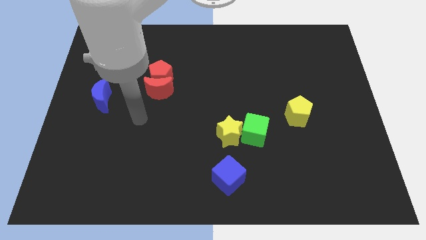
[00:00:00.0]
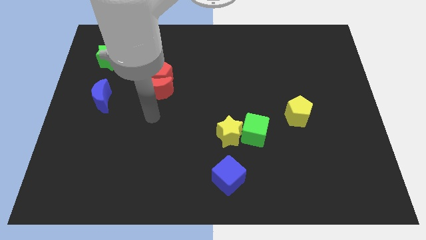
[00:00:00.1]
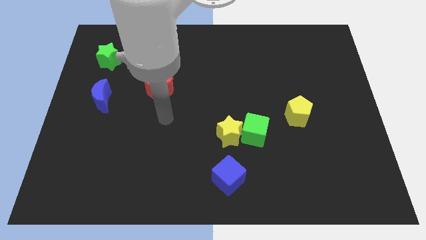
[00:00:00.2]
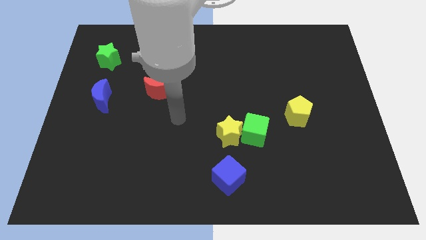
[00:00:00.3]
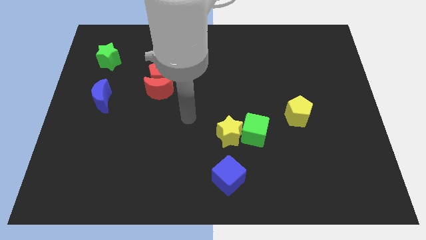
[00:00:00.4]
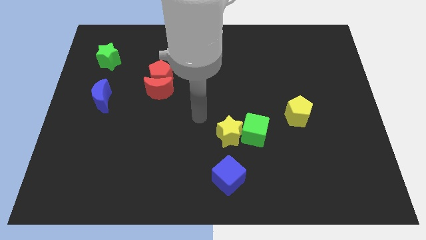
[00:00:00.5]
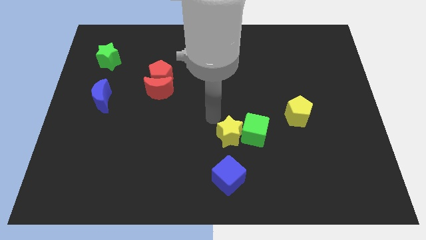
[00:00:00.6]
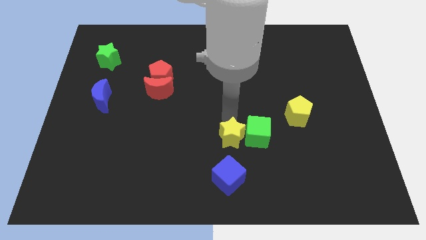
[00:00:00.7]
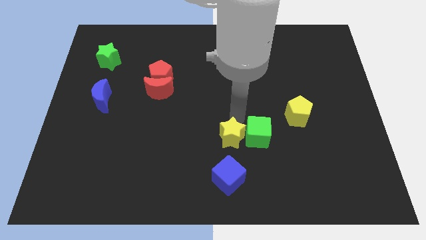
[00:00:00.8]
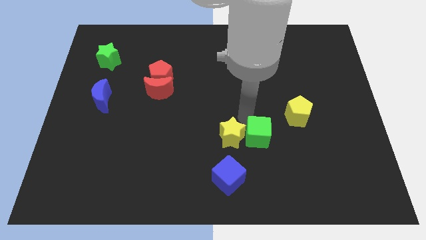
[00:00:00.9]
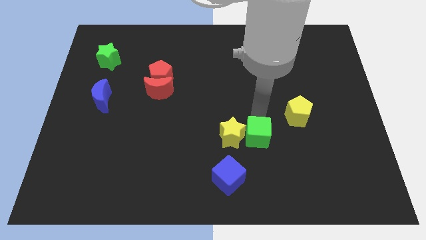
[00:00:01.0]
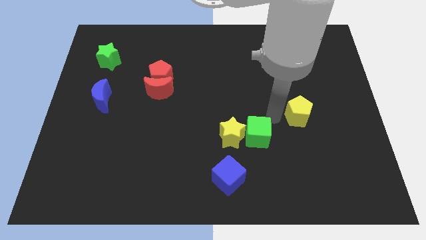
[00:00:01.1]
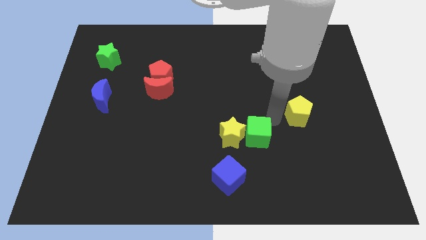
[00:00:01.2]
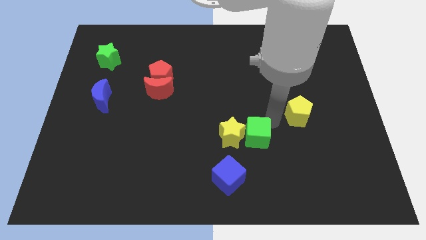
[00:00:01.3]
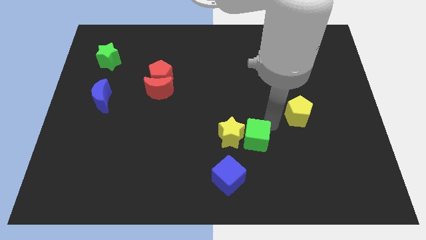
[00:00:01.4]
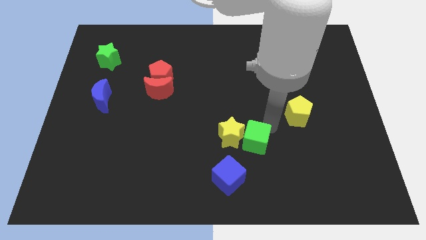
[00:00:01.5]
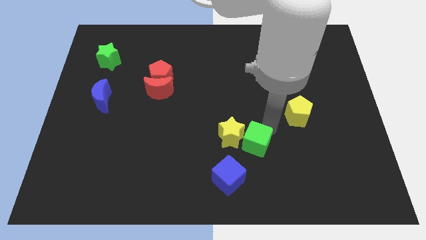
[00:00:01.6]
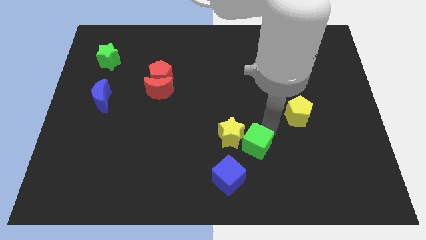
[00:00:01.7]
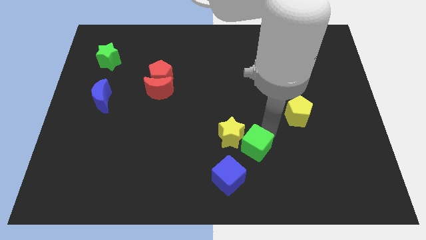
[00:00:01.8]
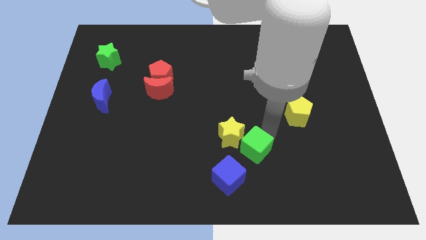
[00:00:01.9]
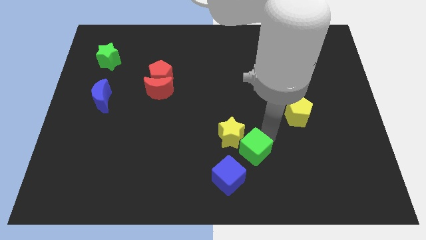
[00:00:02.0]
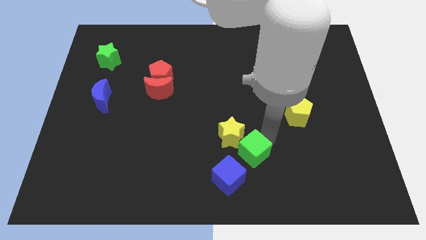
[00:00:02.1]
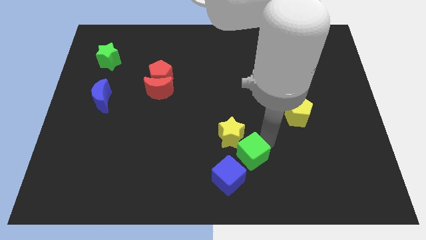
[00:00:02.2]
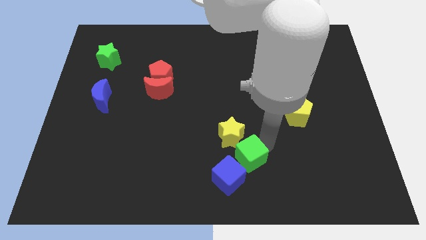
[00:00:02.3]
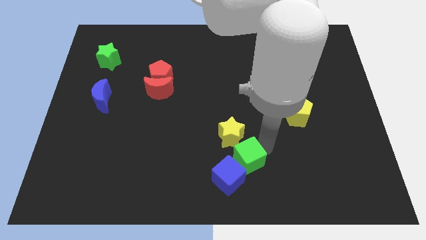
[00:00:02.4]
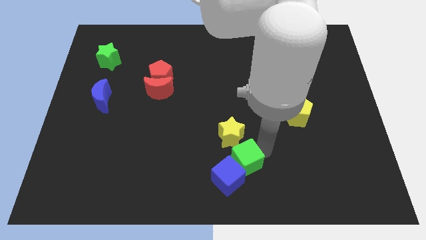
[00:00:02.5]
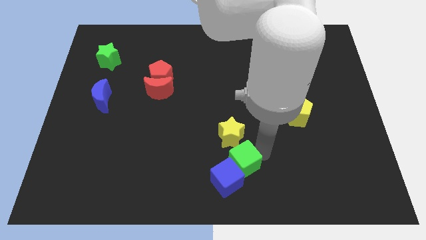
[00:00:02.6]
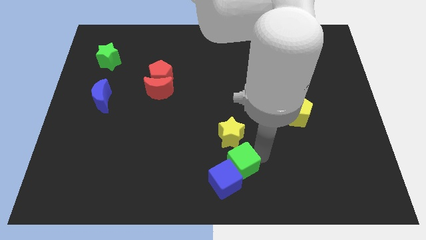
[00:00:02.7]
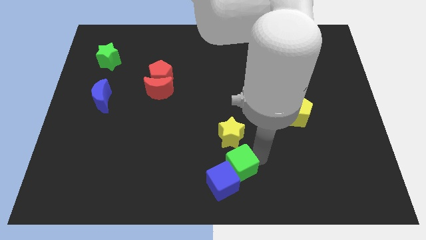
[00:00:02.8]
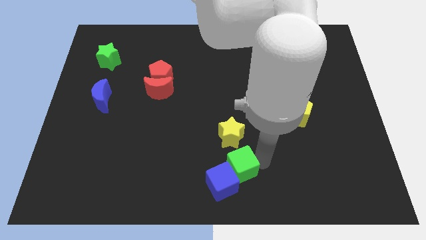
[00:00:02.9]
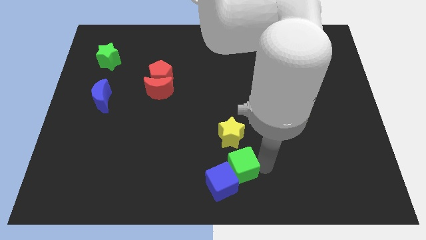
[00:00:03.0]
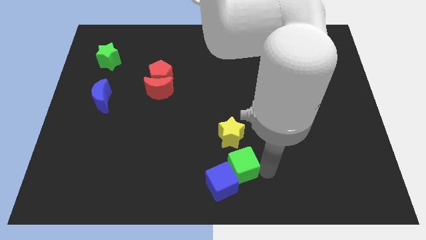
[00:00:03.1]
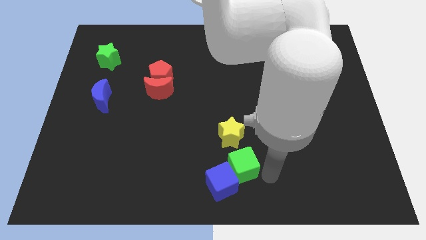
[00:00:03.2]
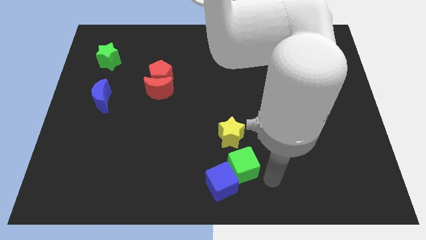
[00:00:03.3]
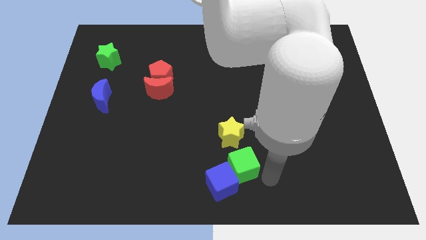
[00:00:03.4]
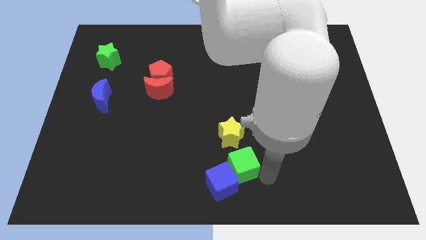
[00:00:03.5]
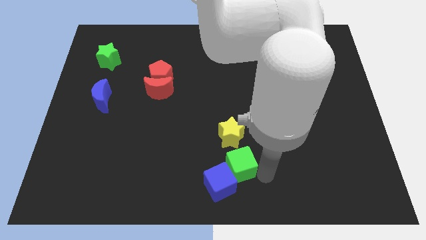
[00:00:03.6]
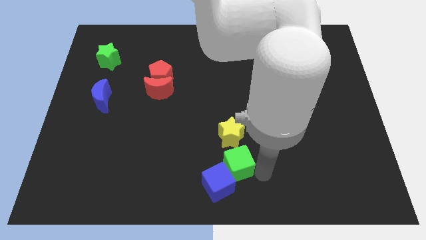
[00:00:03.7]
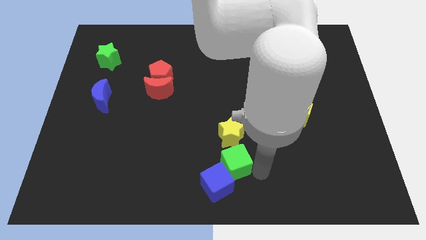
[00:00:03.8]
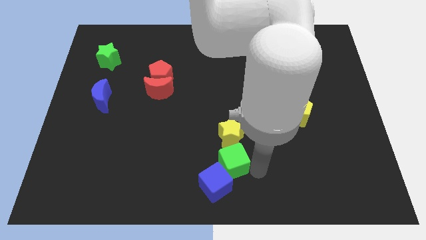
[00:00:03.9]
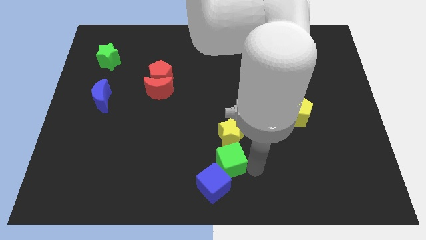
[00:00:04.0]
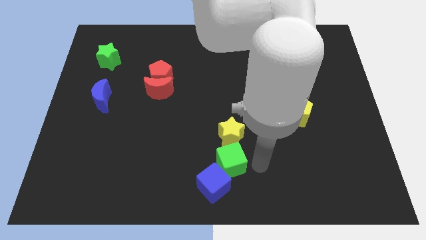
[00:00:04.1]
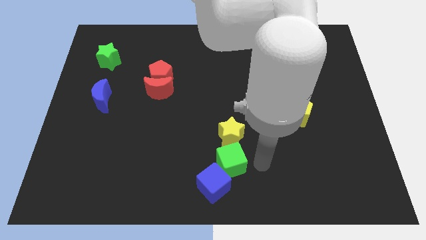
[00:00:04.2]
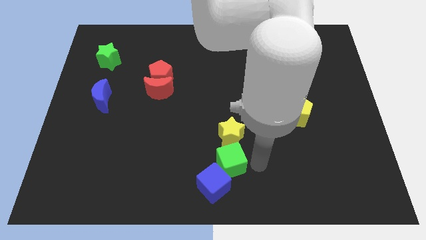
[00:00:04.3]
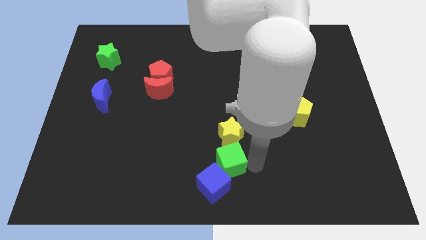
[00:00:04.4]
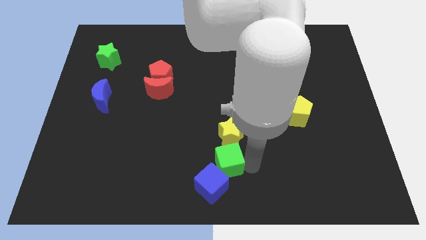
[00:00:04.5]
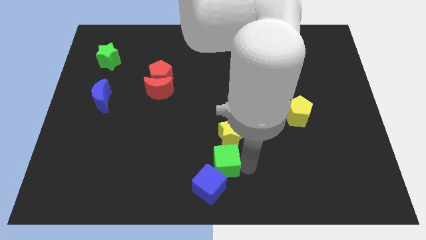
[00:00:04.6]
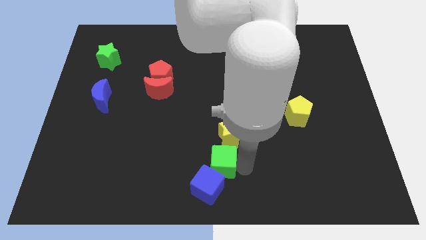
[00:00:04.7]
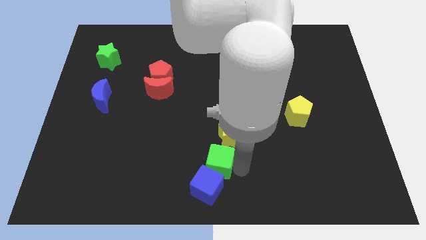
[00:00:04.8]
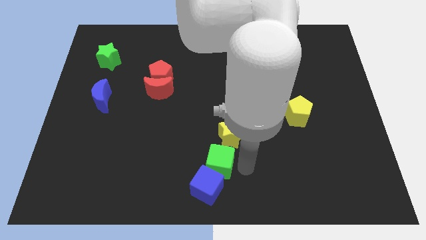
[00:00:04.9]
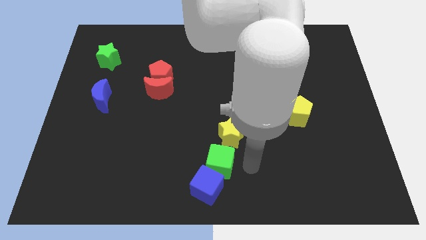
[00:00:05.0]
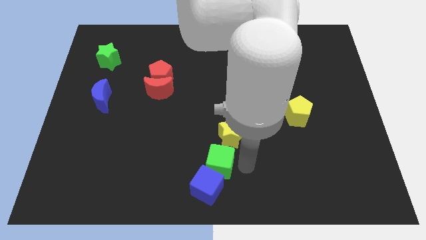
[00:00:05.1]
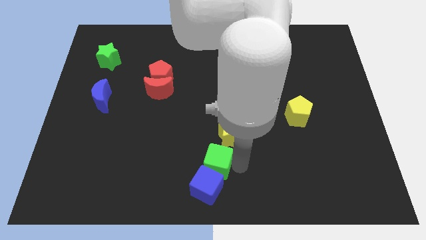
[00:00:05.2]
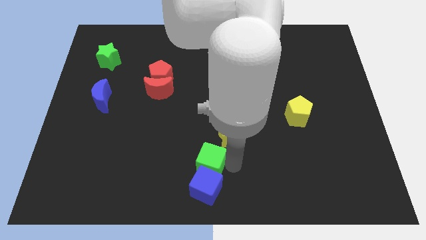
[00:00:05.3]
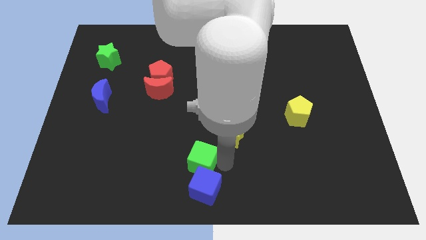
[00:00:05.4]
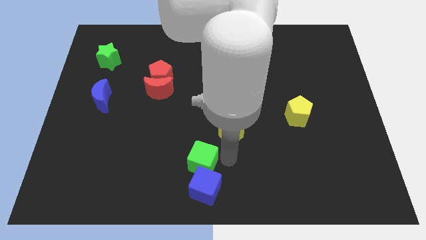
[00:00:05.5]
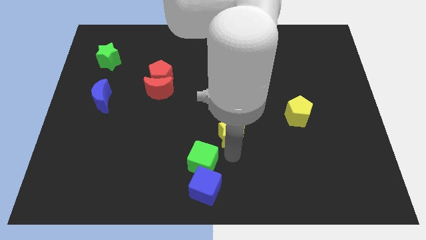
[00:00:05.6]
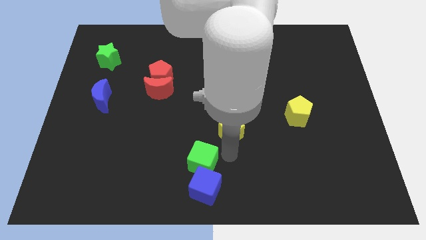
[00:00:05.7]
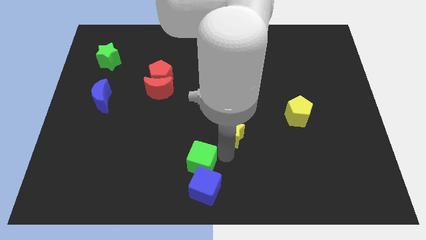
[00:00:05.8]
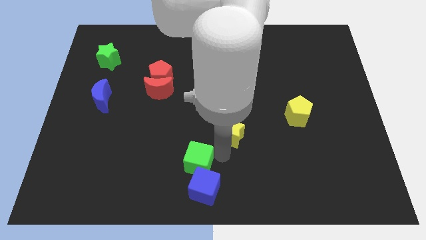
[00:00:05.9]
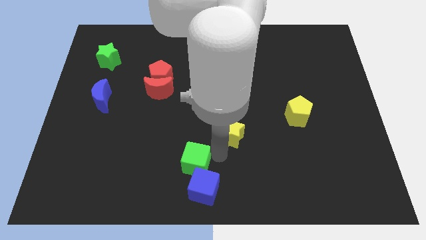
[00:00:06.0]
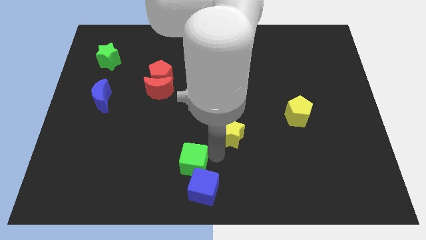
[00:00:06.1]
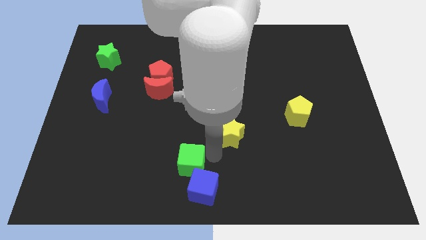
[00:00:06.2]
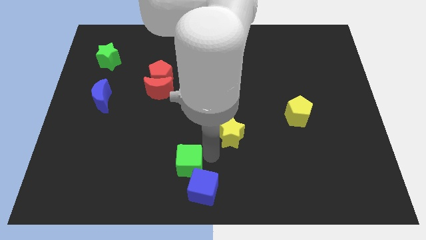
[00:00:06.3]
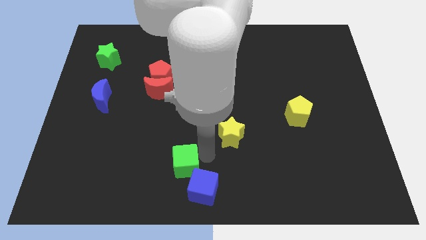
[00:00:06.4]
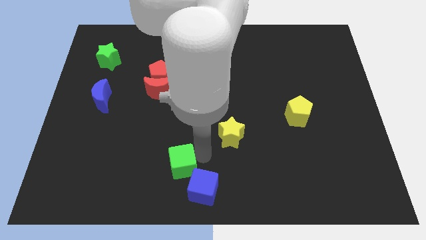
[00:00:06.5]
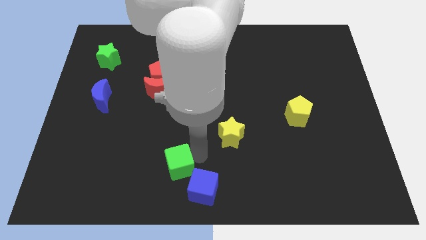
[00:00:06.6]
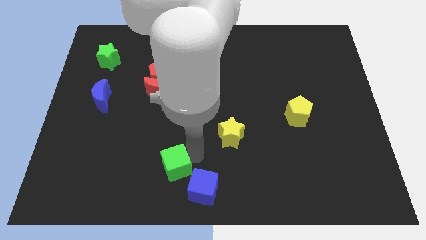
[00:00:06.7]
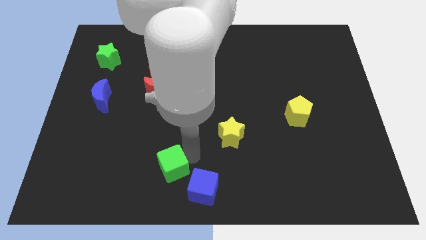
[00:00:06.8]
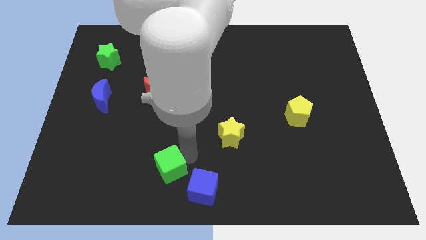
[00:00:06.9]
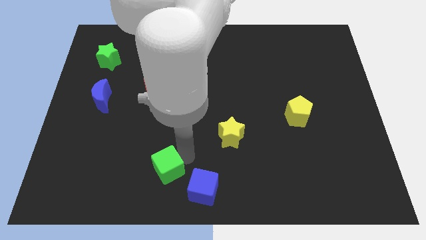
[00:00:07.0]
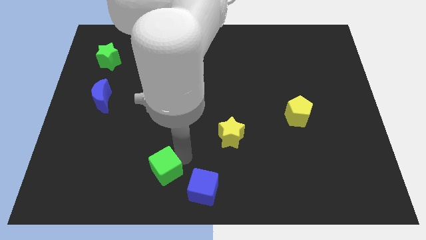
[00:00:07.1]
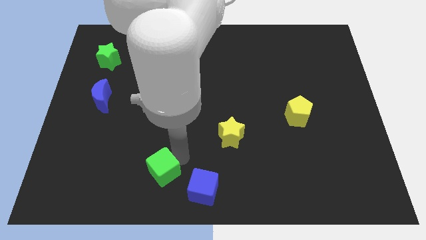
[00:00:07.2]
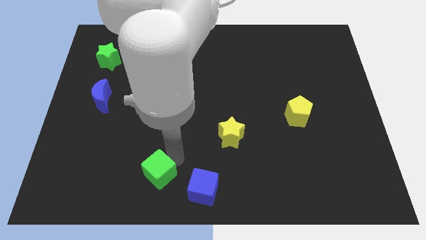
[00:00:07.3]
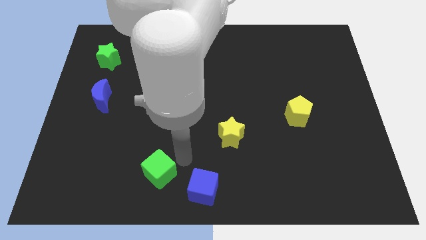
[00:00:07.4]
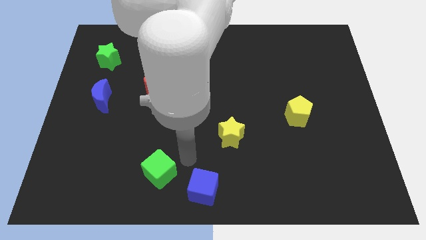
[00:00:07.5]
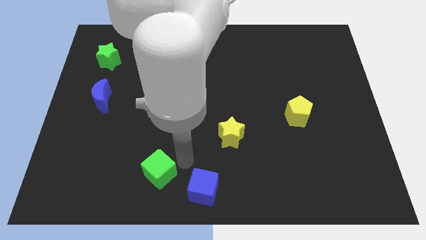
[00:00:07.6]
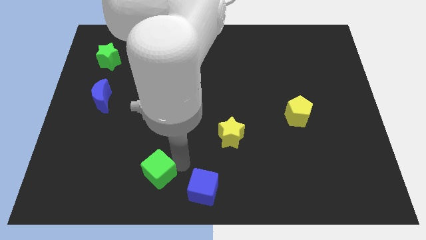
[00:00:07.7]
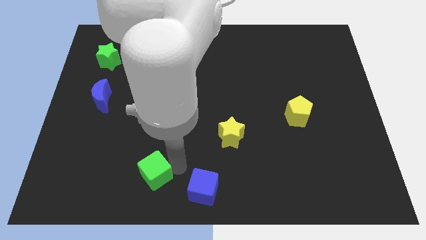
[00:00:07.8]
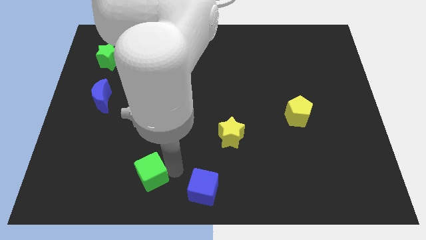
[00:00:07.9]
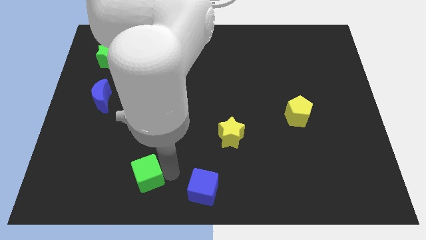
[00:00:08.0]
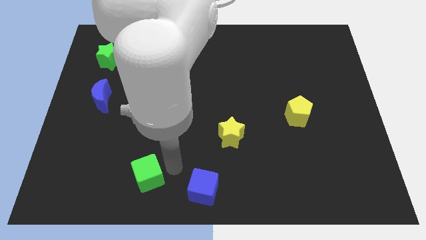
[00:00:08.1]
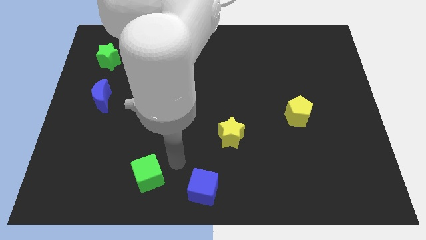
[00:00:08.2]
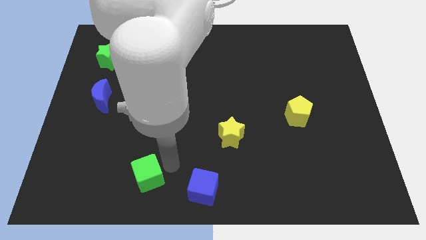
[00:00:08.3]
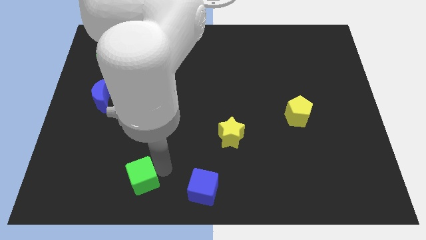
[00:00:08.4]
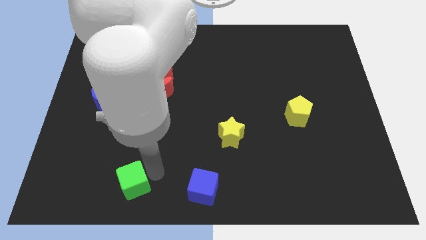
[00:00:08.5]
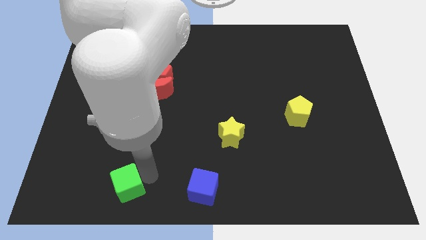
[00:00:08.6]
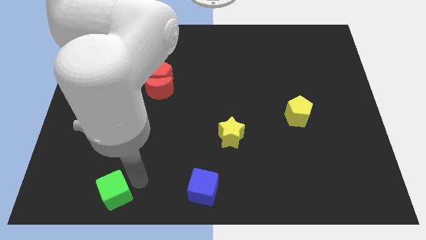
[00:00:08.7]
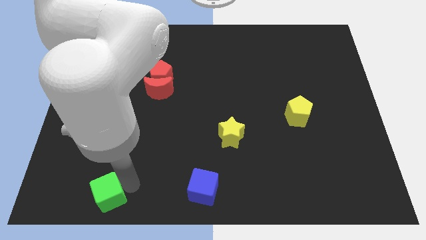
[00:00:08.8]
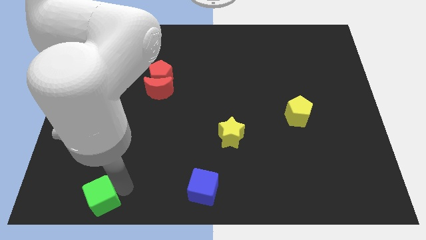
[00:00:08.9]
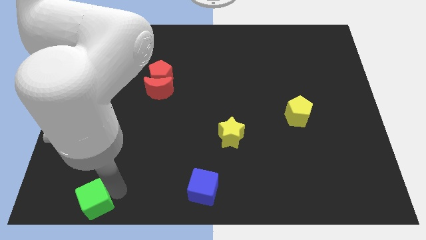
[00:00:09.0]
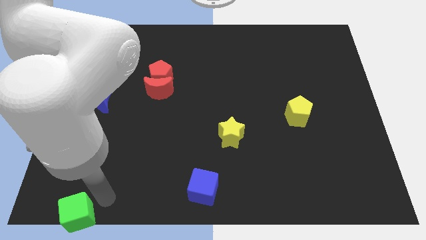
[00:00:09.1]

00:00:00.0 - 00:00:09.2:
slide the green cube to the bottom left corner
